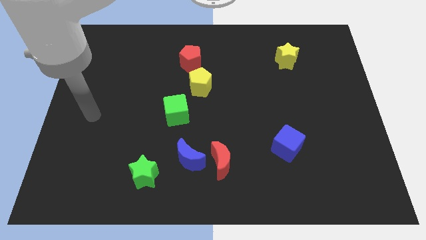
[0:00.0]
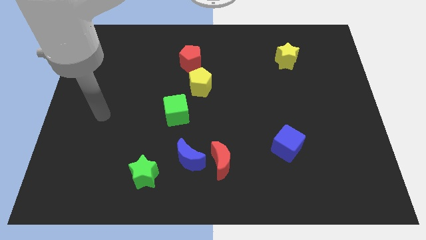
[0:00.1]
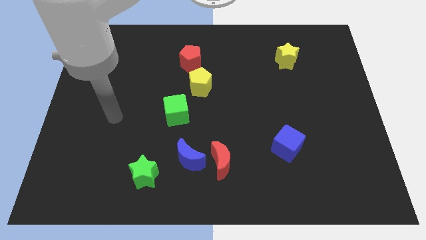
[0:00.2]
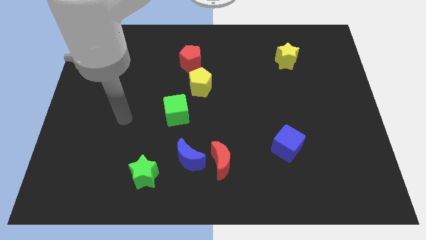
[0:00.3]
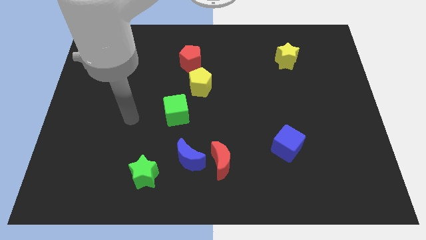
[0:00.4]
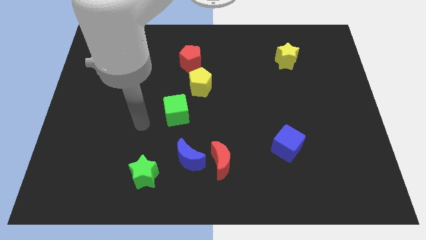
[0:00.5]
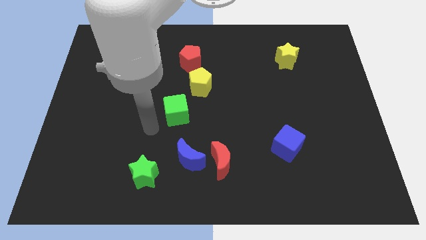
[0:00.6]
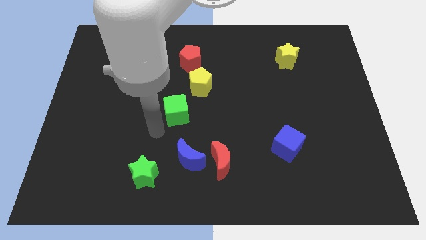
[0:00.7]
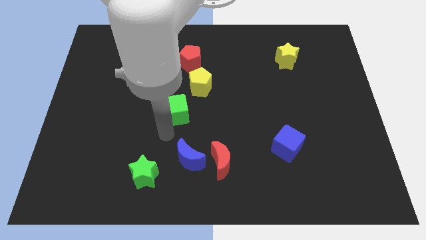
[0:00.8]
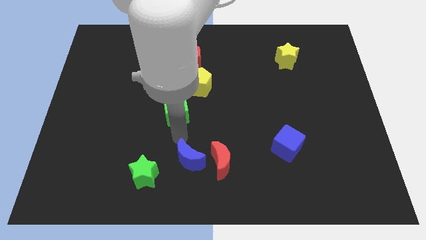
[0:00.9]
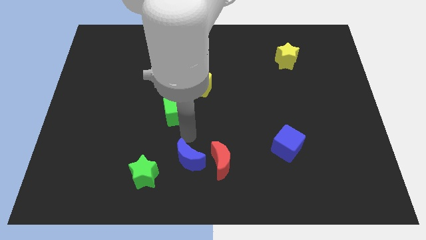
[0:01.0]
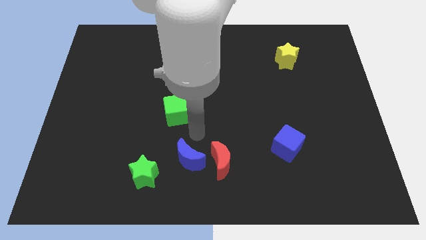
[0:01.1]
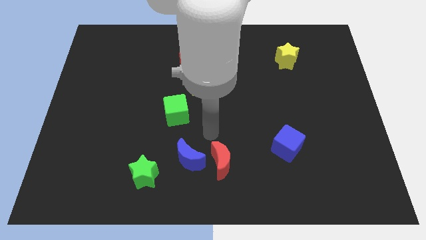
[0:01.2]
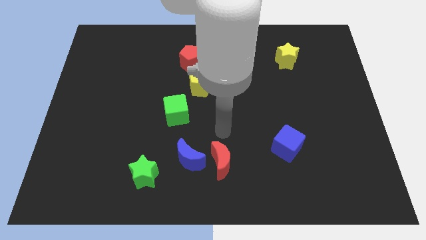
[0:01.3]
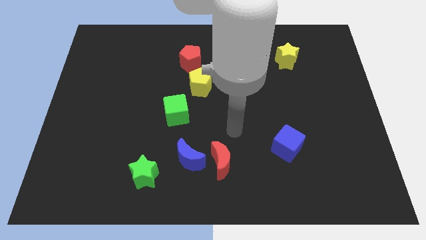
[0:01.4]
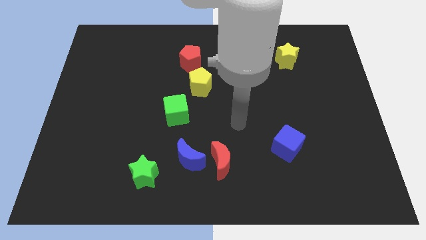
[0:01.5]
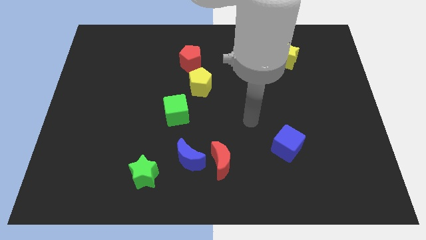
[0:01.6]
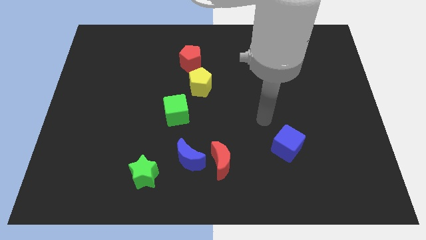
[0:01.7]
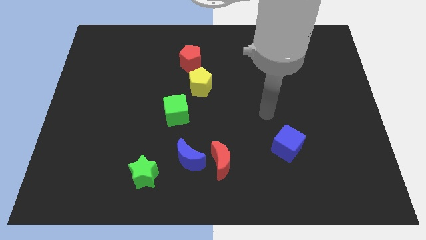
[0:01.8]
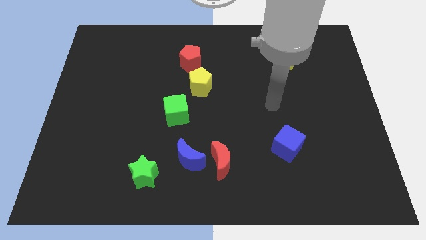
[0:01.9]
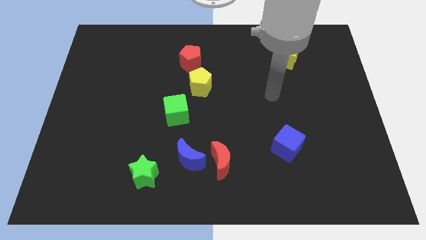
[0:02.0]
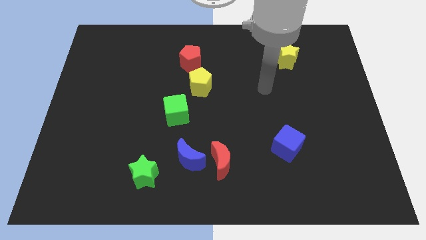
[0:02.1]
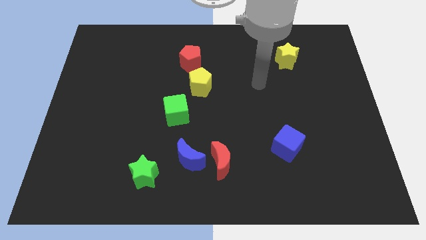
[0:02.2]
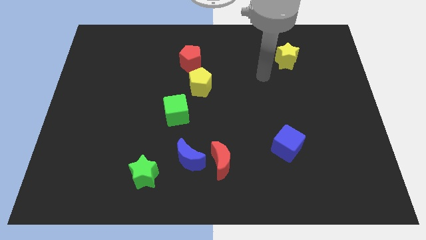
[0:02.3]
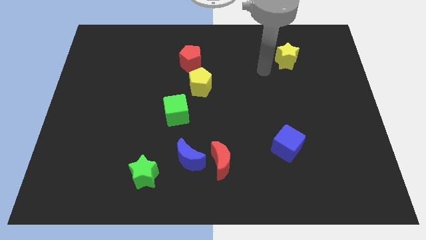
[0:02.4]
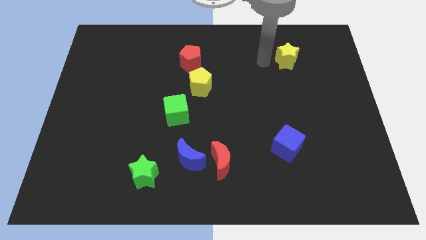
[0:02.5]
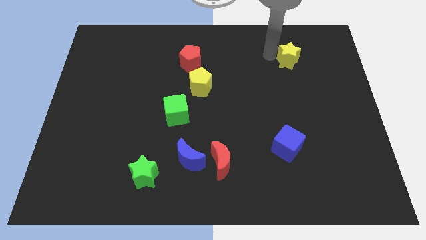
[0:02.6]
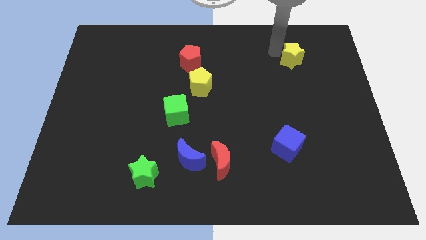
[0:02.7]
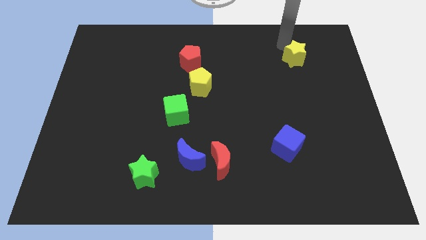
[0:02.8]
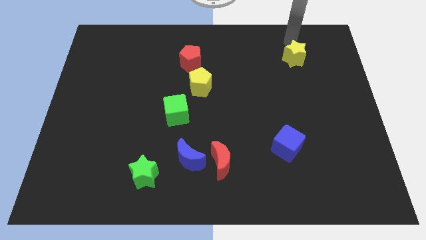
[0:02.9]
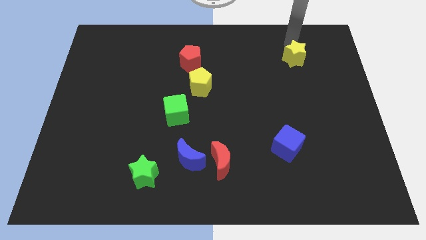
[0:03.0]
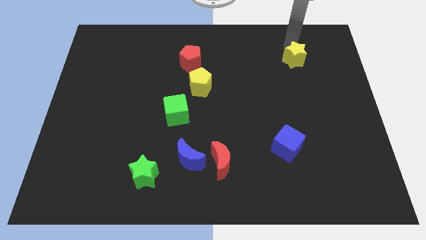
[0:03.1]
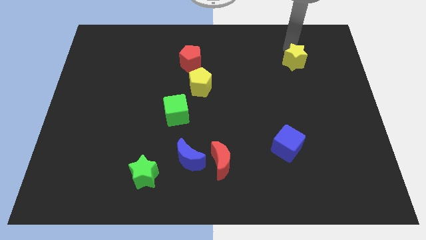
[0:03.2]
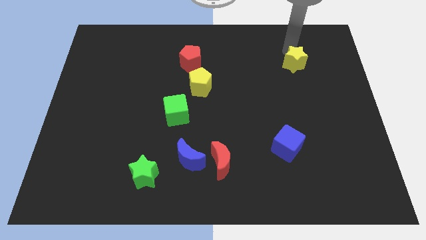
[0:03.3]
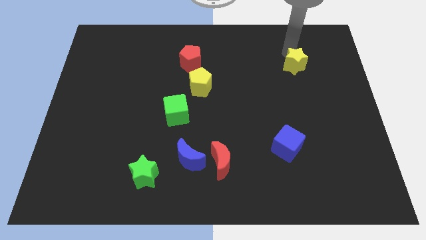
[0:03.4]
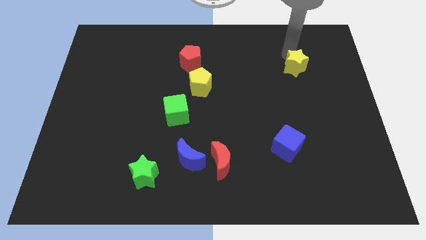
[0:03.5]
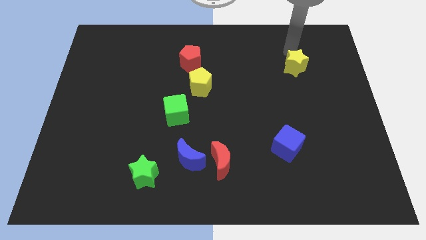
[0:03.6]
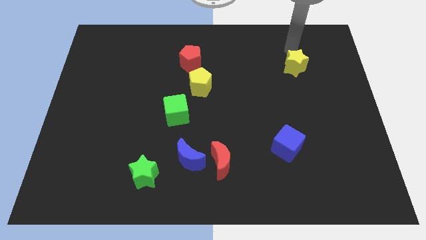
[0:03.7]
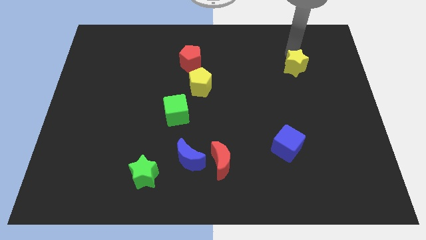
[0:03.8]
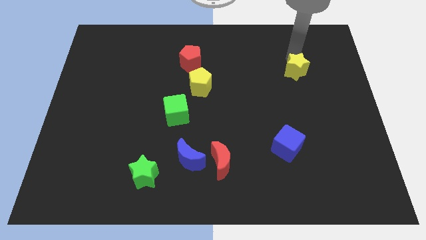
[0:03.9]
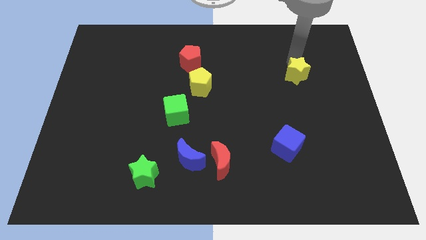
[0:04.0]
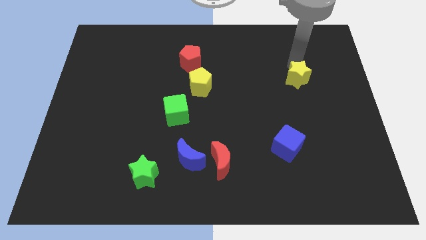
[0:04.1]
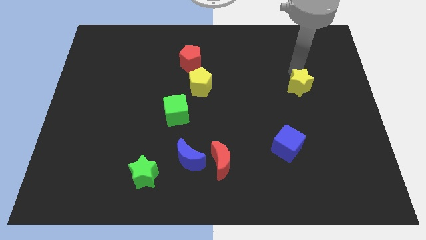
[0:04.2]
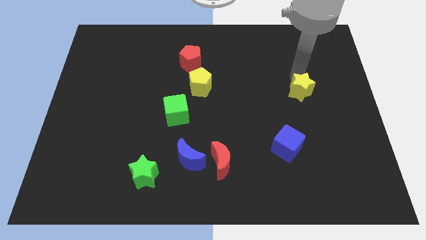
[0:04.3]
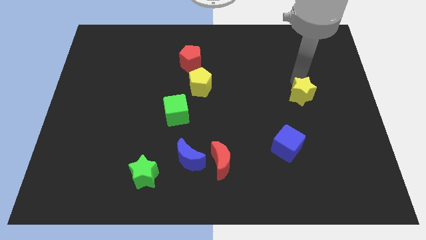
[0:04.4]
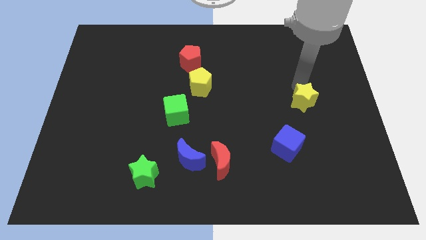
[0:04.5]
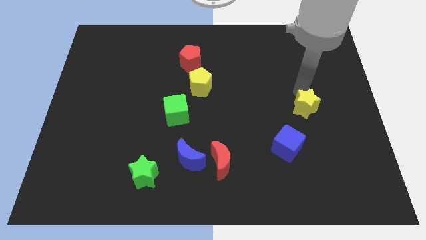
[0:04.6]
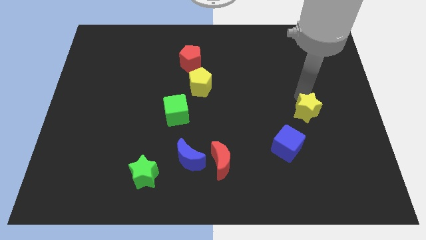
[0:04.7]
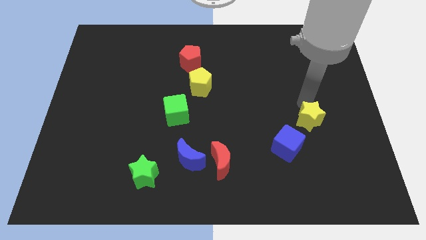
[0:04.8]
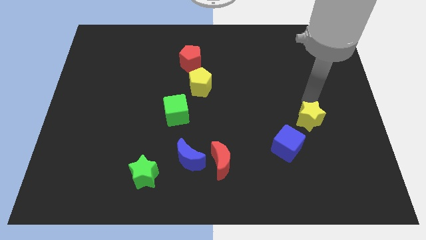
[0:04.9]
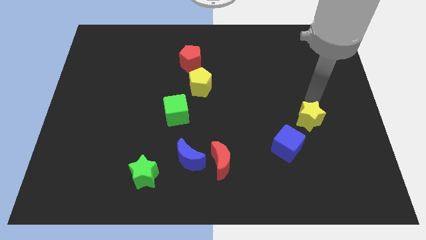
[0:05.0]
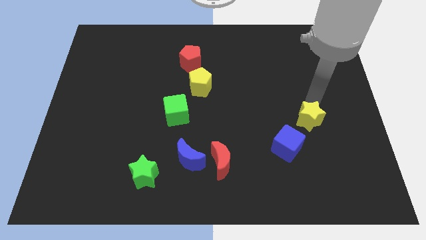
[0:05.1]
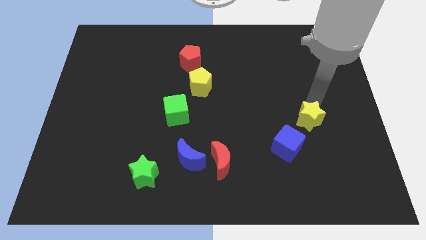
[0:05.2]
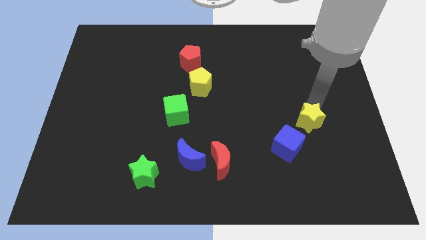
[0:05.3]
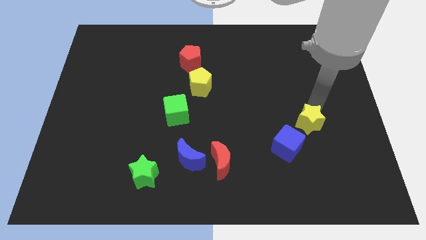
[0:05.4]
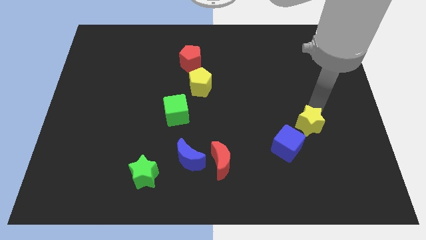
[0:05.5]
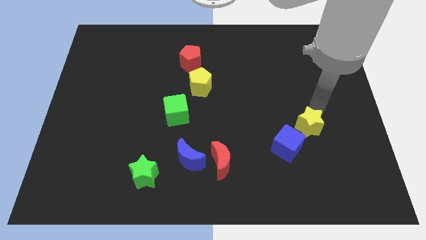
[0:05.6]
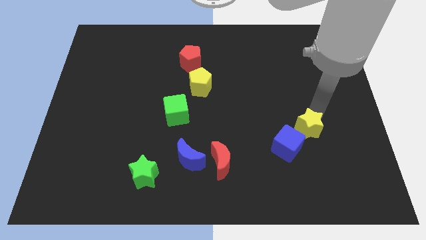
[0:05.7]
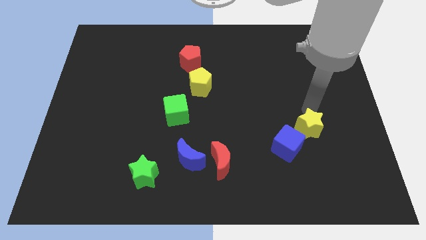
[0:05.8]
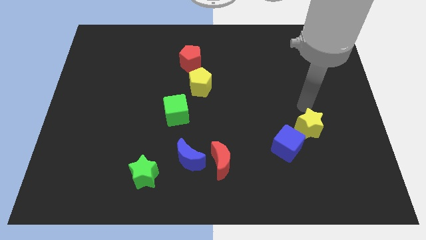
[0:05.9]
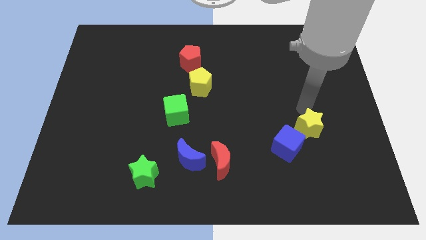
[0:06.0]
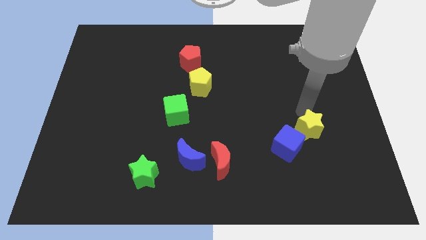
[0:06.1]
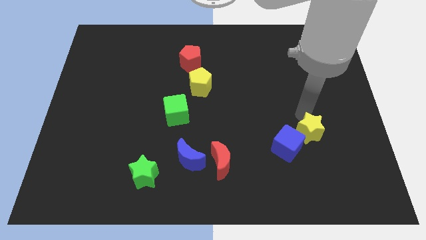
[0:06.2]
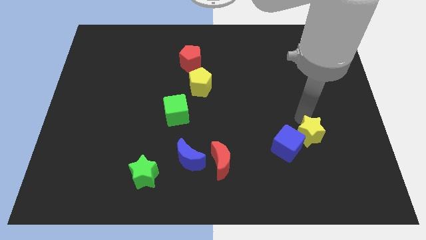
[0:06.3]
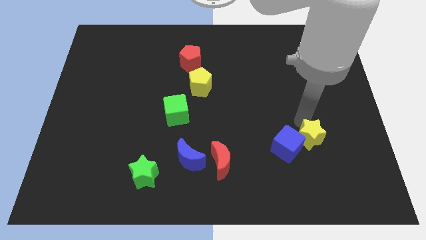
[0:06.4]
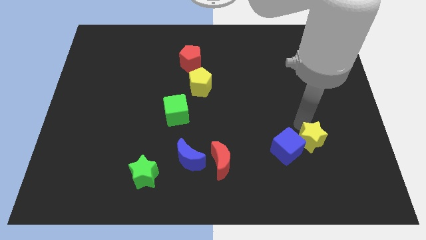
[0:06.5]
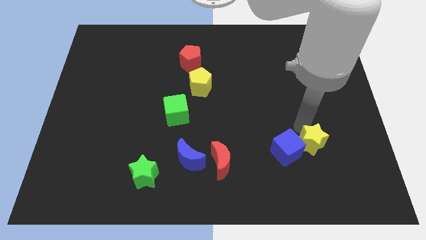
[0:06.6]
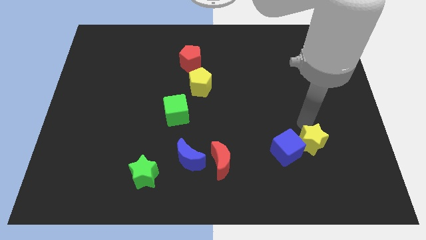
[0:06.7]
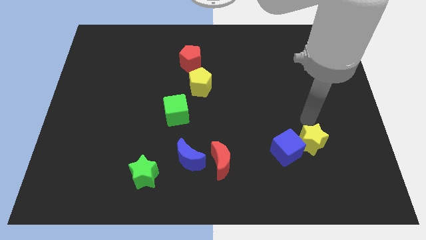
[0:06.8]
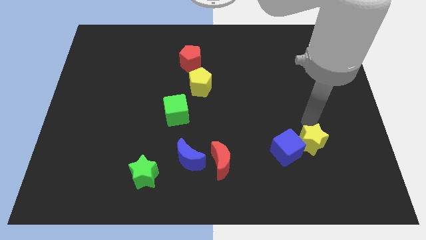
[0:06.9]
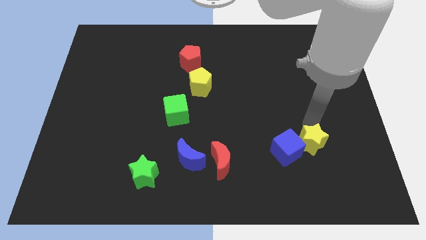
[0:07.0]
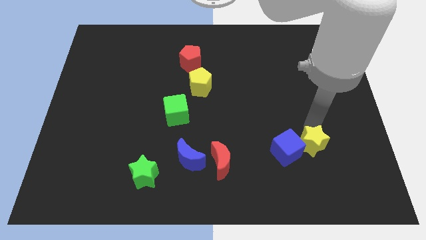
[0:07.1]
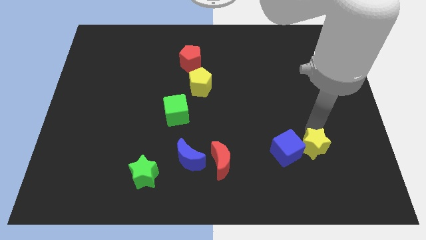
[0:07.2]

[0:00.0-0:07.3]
put the yellow star to the bottom right side of the blue cube
